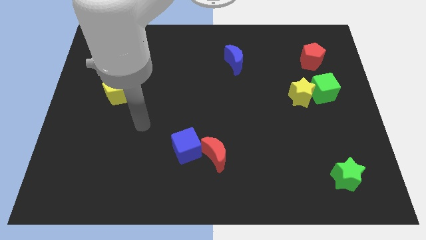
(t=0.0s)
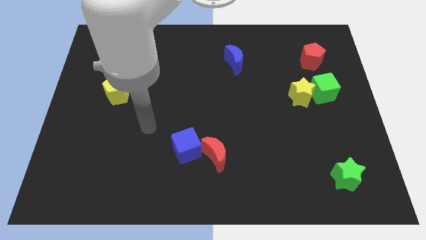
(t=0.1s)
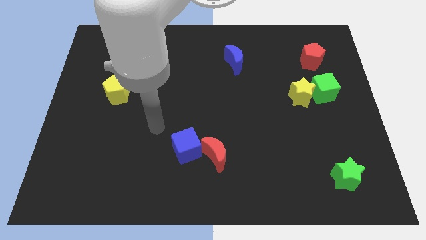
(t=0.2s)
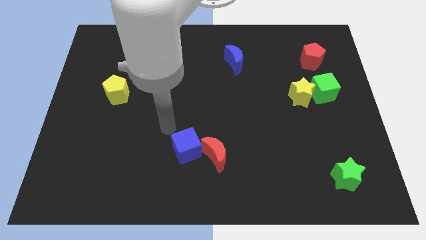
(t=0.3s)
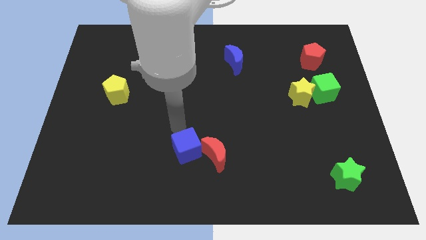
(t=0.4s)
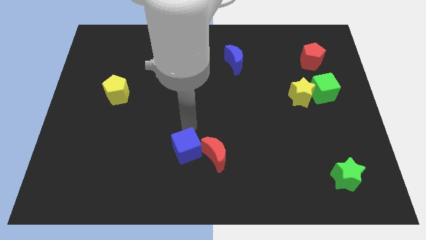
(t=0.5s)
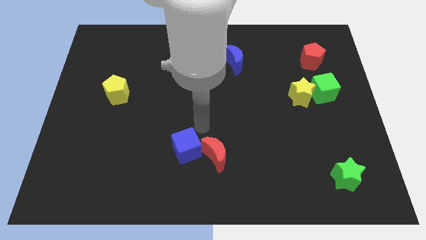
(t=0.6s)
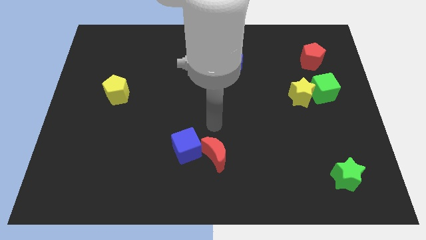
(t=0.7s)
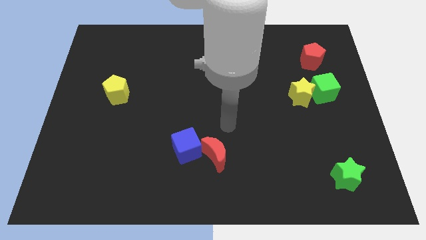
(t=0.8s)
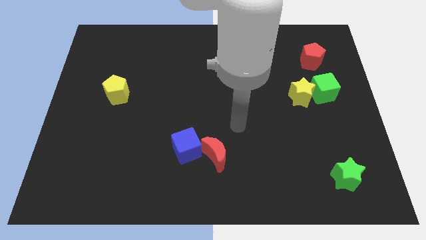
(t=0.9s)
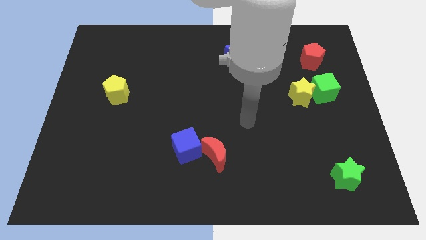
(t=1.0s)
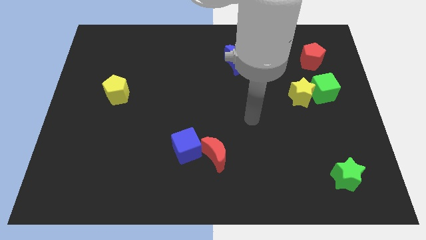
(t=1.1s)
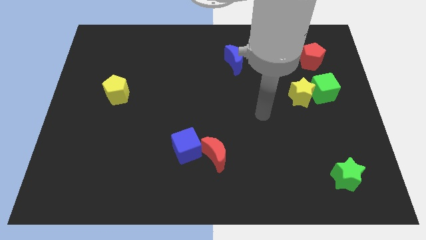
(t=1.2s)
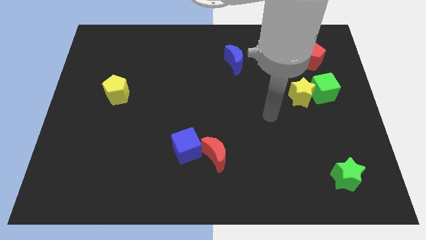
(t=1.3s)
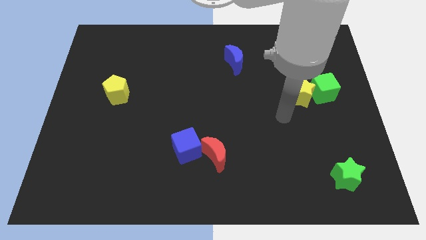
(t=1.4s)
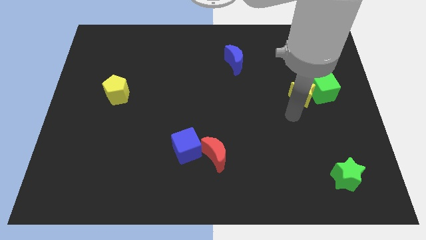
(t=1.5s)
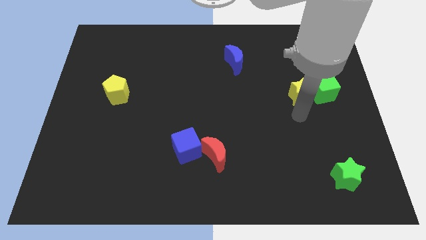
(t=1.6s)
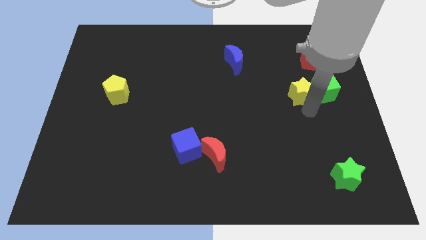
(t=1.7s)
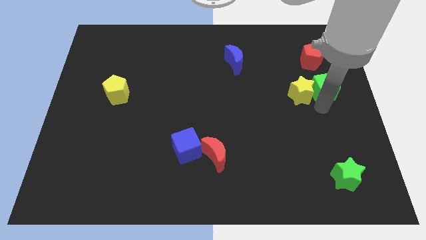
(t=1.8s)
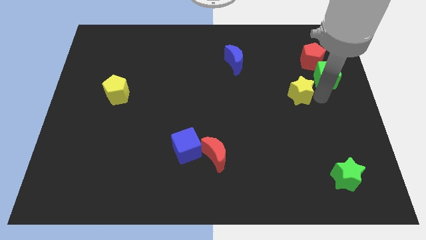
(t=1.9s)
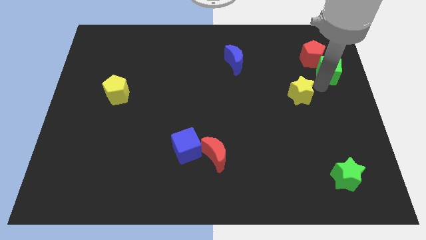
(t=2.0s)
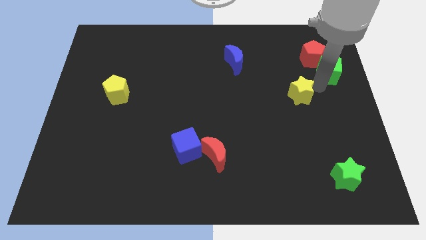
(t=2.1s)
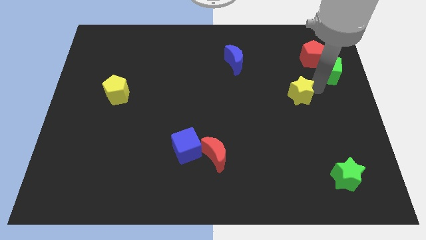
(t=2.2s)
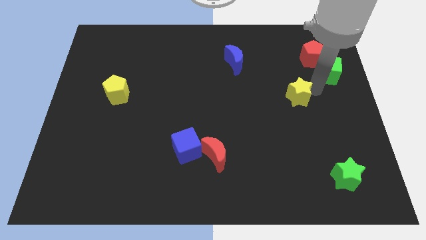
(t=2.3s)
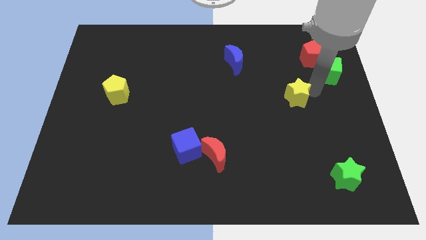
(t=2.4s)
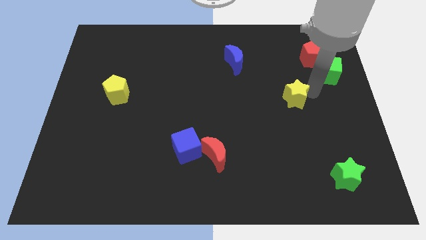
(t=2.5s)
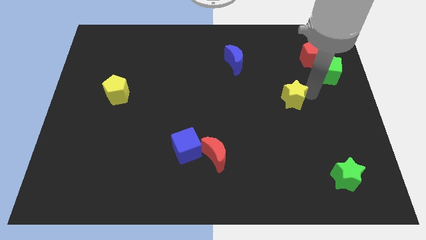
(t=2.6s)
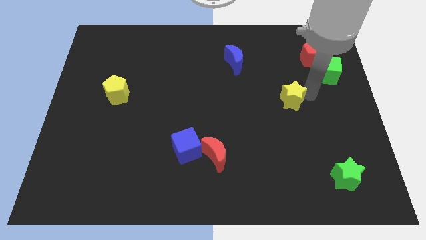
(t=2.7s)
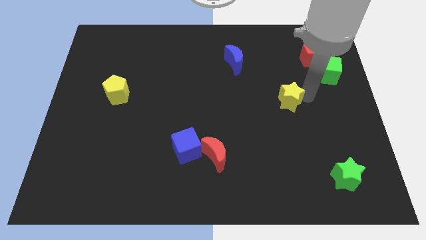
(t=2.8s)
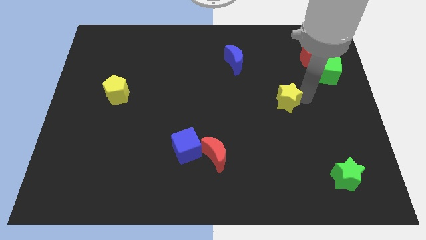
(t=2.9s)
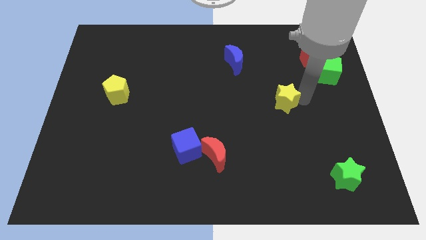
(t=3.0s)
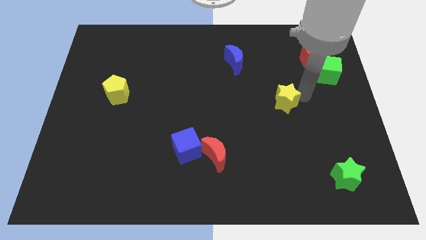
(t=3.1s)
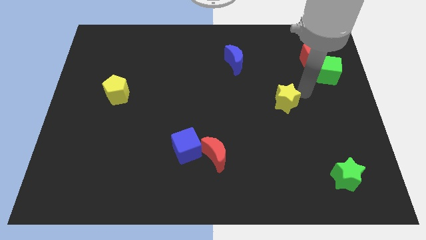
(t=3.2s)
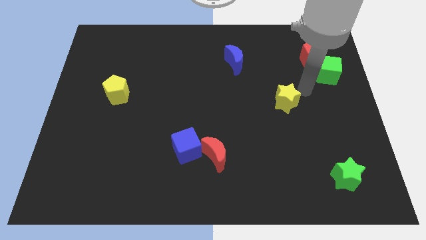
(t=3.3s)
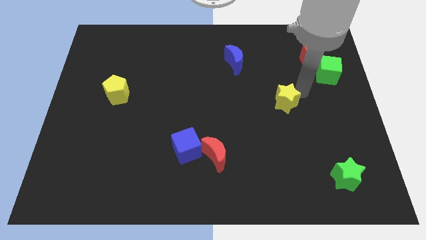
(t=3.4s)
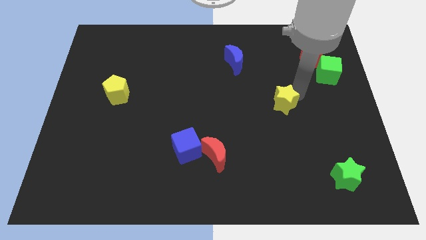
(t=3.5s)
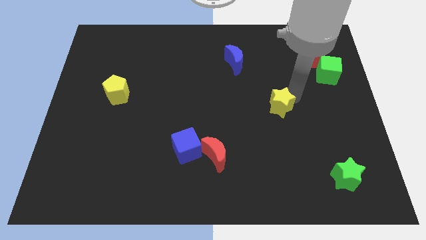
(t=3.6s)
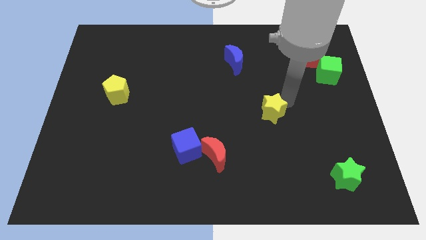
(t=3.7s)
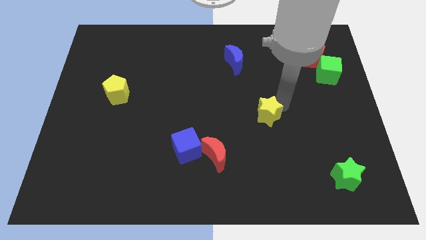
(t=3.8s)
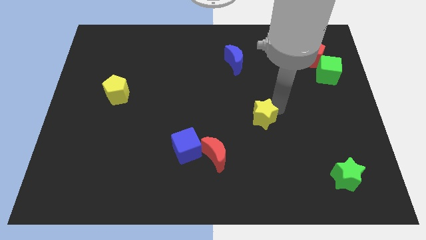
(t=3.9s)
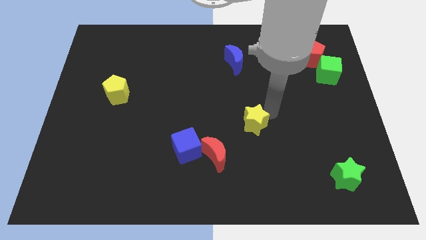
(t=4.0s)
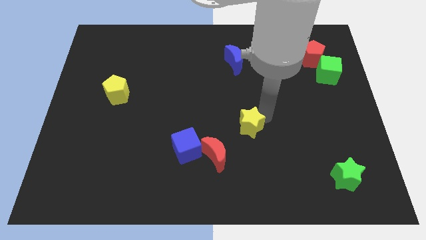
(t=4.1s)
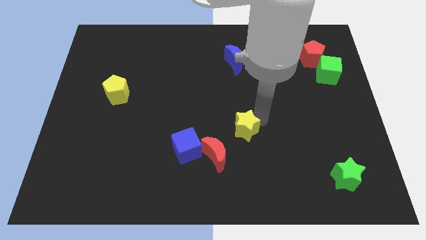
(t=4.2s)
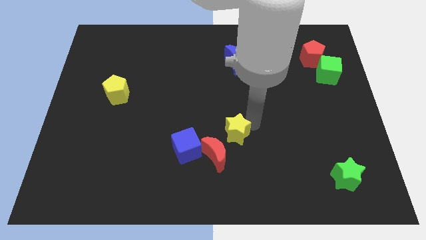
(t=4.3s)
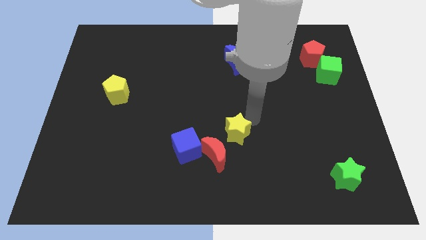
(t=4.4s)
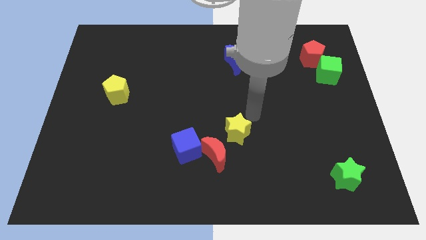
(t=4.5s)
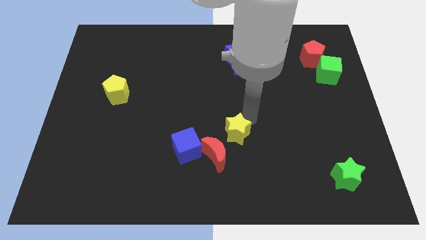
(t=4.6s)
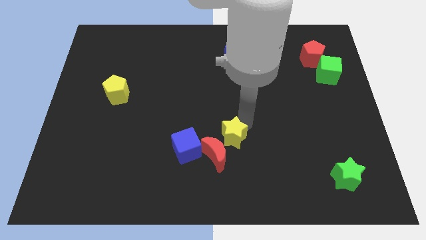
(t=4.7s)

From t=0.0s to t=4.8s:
push the yellow star close to the red moon

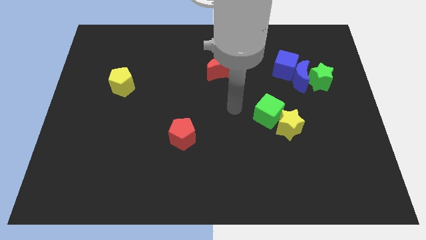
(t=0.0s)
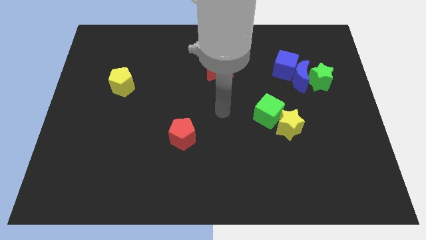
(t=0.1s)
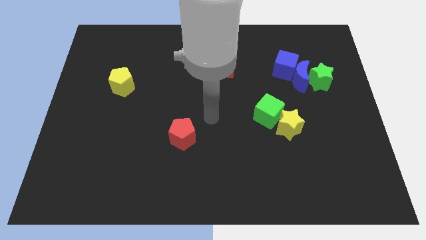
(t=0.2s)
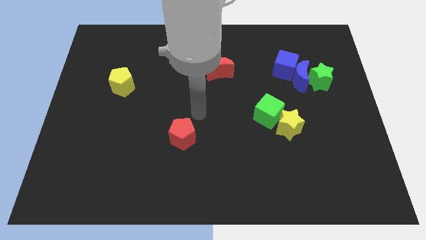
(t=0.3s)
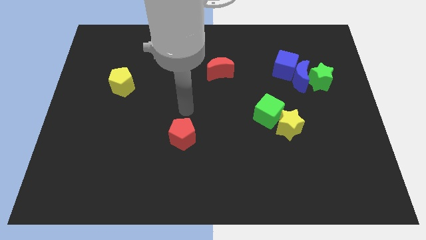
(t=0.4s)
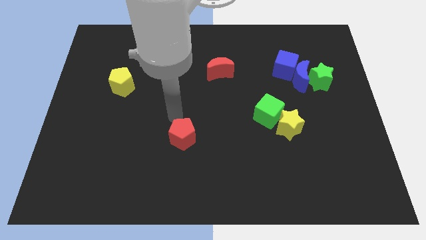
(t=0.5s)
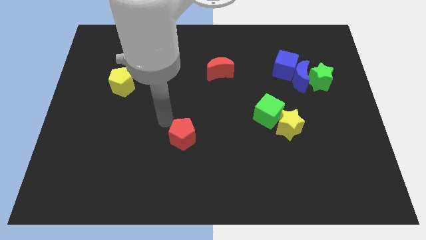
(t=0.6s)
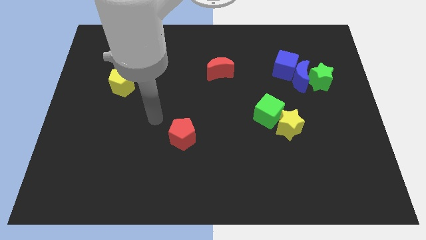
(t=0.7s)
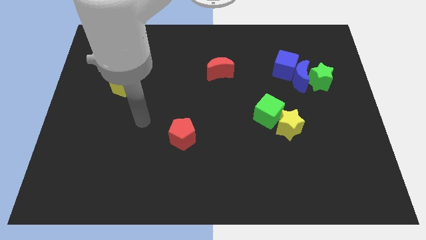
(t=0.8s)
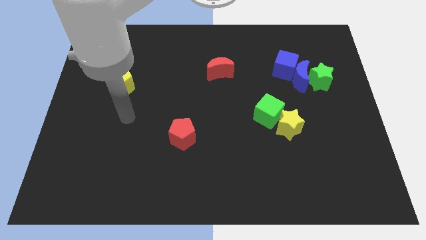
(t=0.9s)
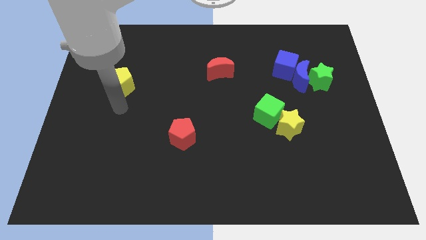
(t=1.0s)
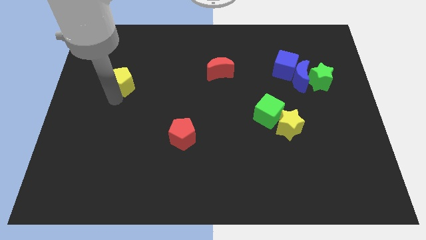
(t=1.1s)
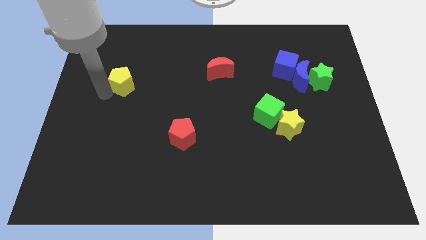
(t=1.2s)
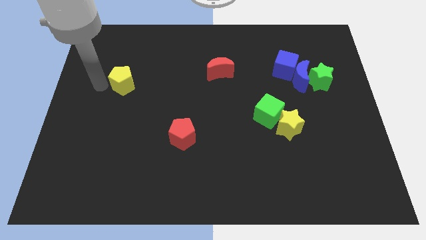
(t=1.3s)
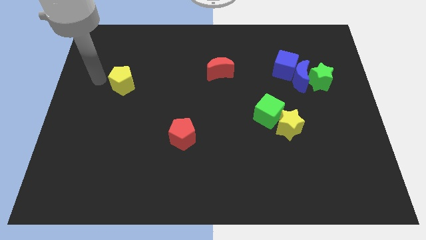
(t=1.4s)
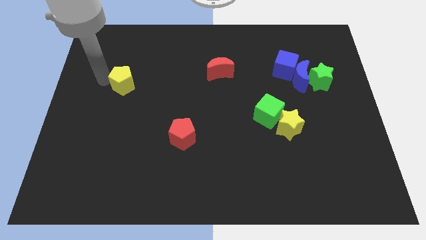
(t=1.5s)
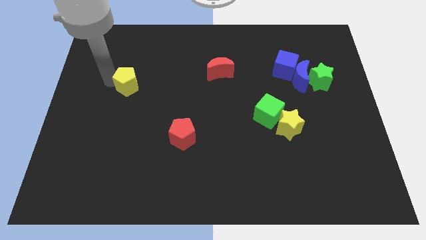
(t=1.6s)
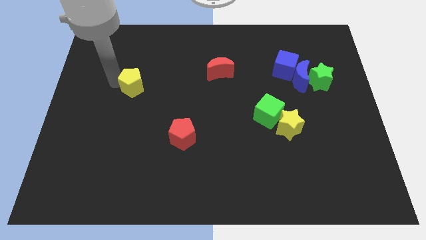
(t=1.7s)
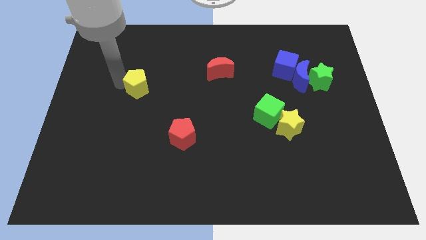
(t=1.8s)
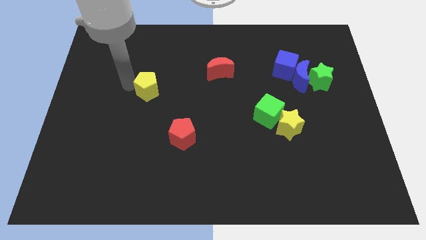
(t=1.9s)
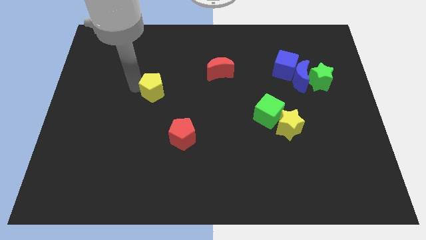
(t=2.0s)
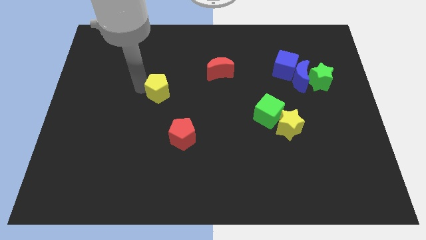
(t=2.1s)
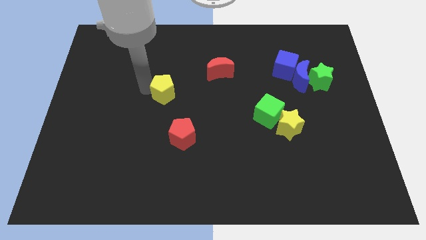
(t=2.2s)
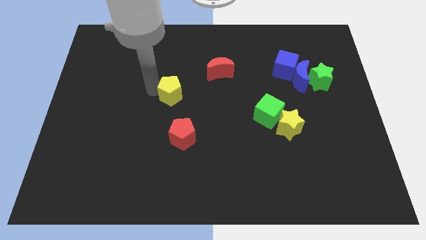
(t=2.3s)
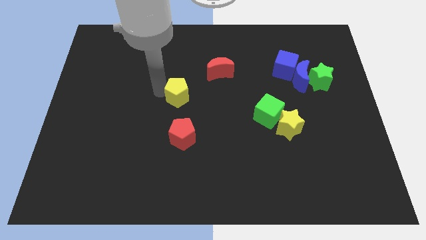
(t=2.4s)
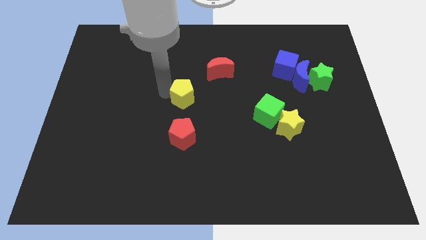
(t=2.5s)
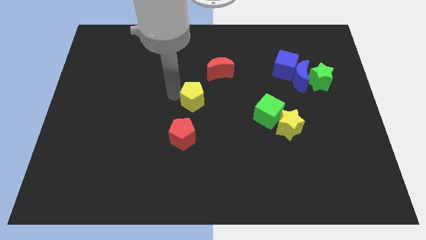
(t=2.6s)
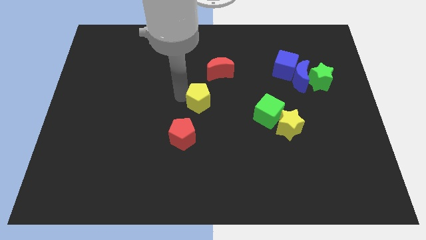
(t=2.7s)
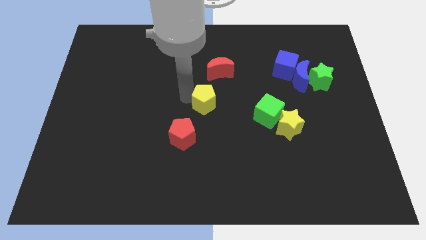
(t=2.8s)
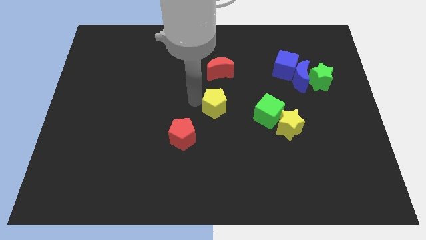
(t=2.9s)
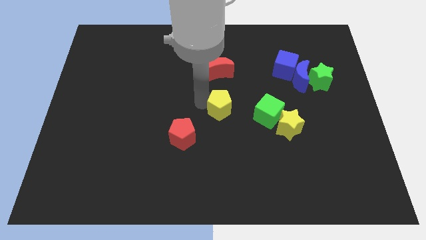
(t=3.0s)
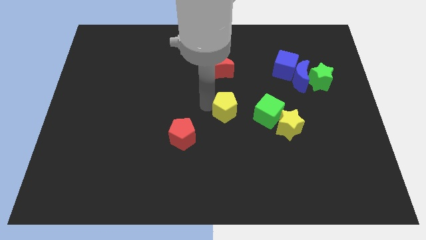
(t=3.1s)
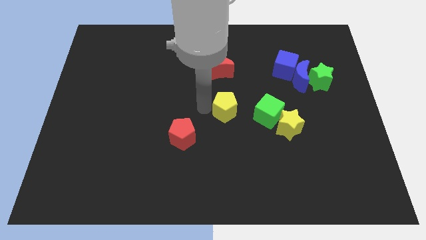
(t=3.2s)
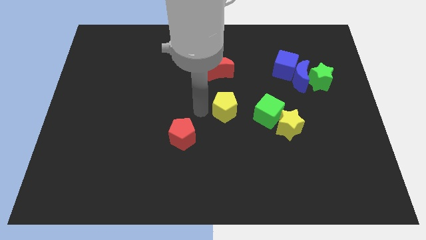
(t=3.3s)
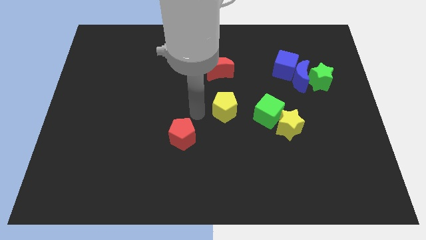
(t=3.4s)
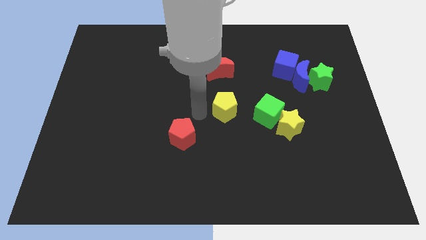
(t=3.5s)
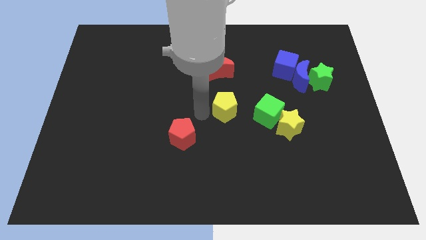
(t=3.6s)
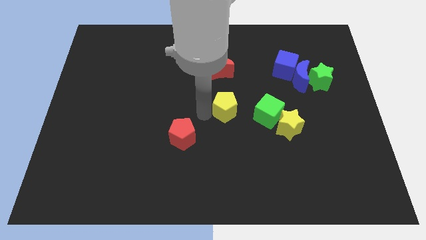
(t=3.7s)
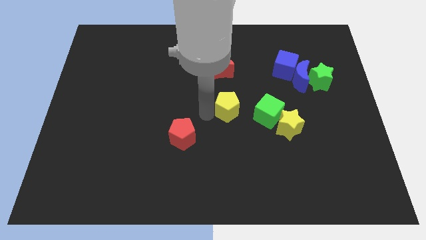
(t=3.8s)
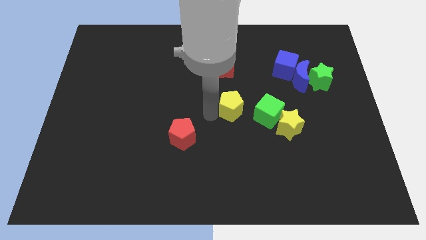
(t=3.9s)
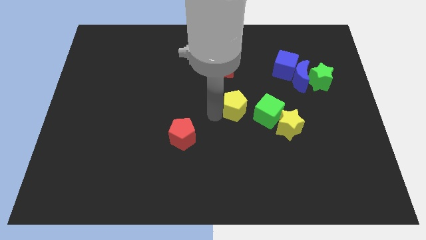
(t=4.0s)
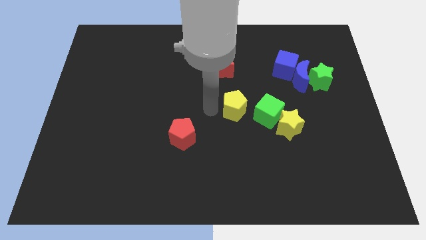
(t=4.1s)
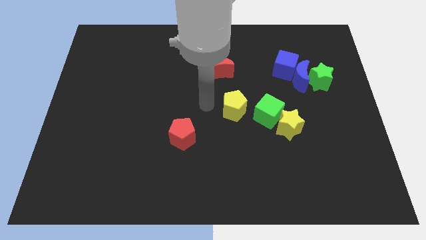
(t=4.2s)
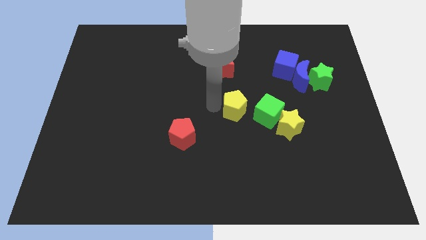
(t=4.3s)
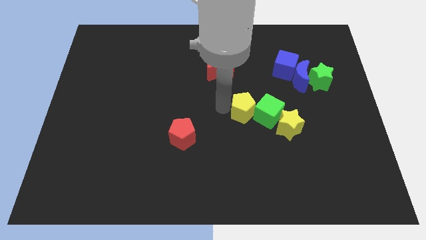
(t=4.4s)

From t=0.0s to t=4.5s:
push the yellow pentagon towards the green cube
